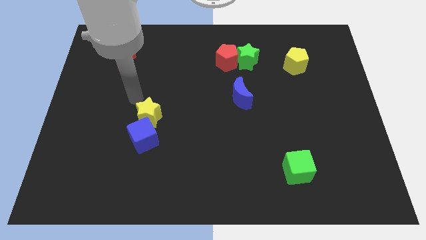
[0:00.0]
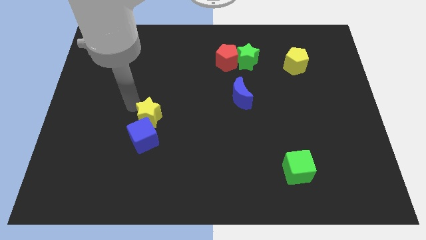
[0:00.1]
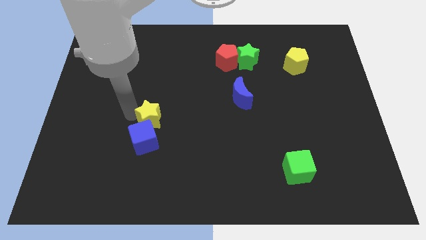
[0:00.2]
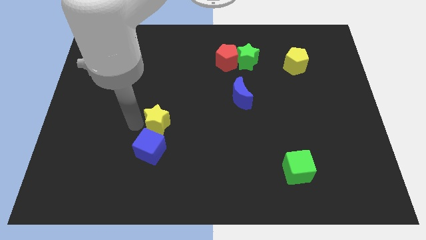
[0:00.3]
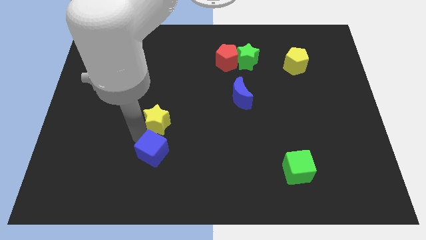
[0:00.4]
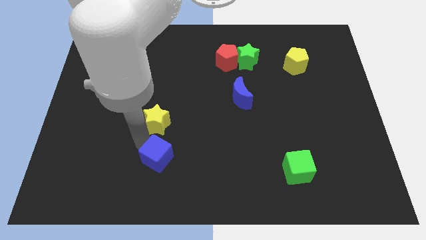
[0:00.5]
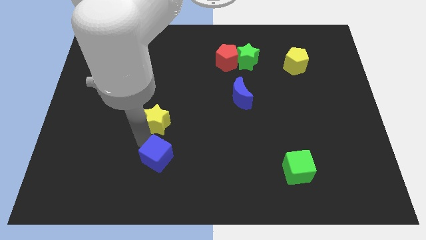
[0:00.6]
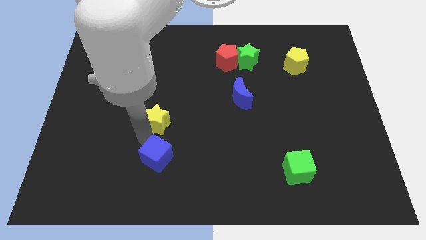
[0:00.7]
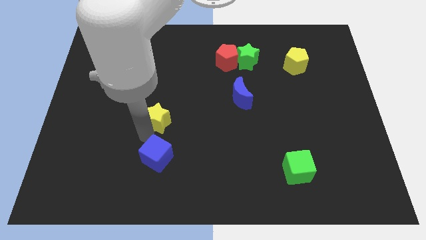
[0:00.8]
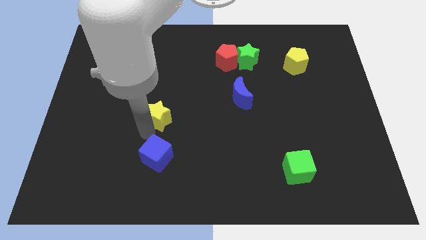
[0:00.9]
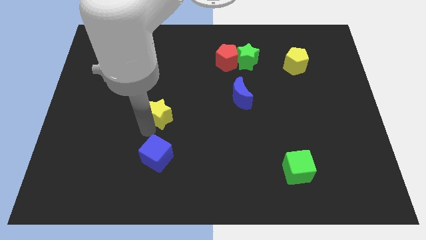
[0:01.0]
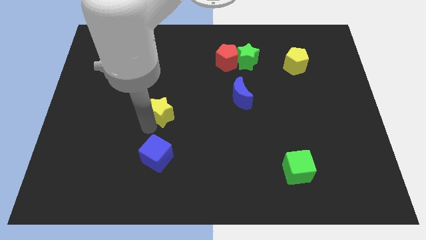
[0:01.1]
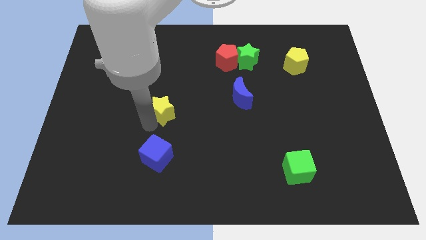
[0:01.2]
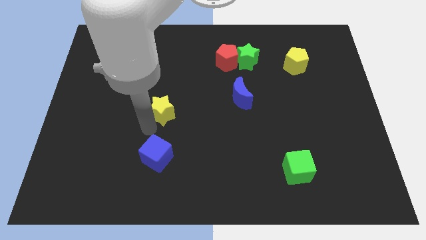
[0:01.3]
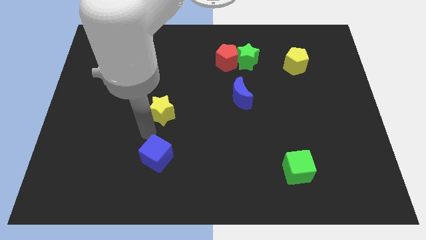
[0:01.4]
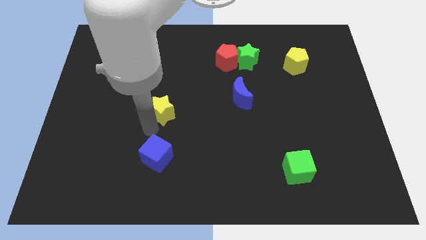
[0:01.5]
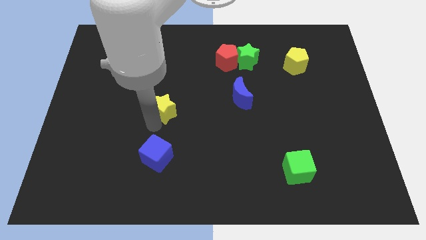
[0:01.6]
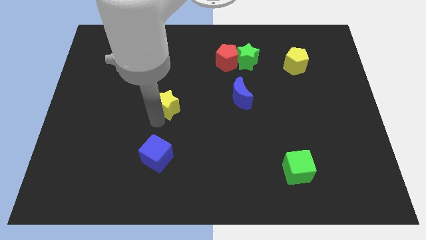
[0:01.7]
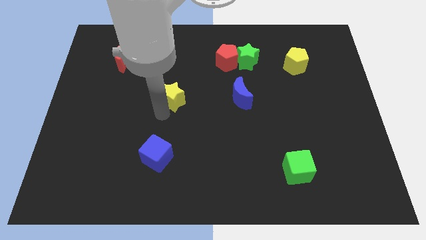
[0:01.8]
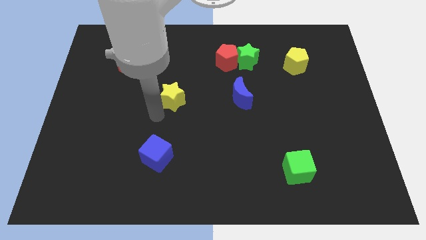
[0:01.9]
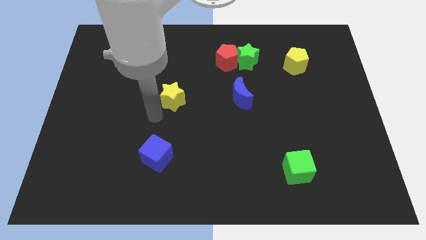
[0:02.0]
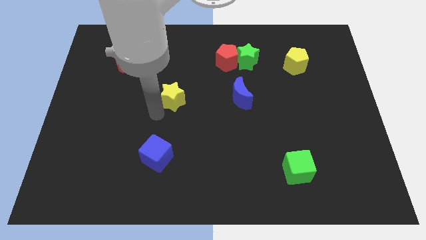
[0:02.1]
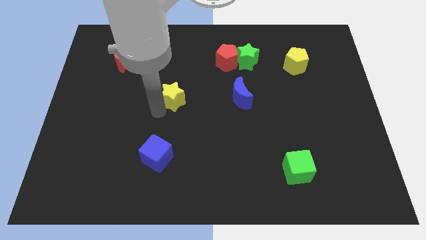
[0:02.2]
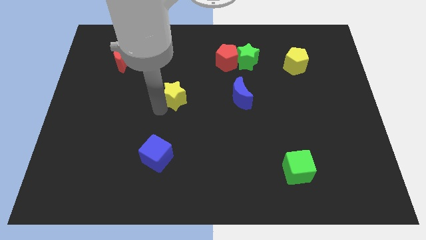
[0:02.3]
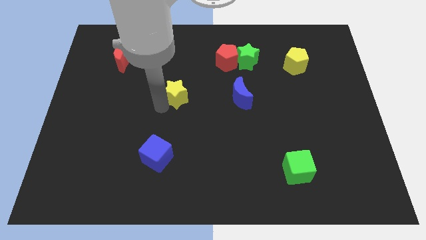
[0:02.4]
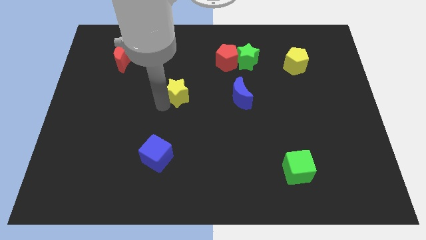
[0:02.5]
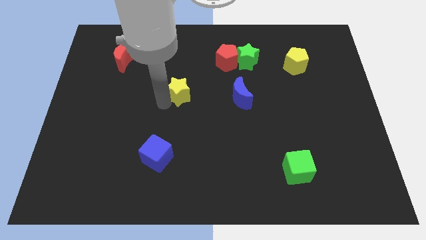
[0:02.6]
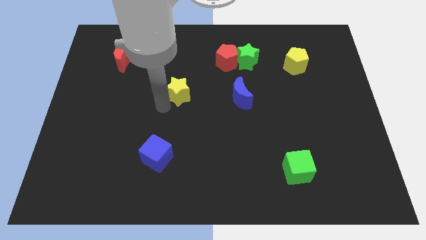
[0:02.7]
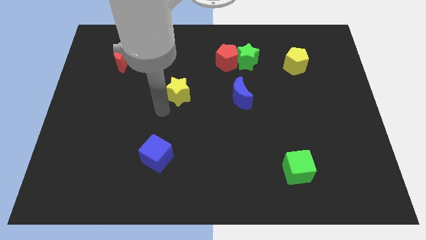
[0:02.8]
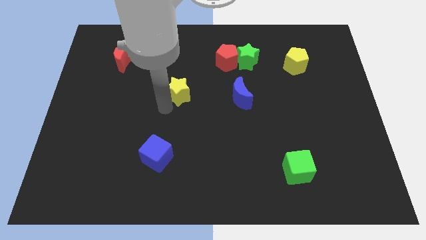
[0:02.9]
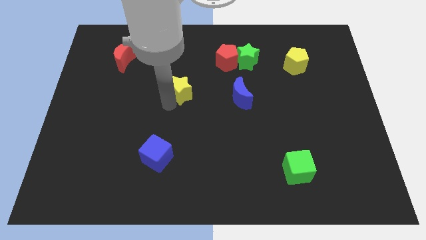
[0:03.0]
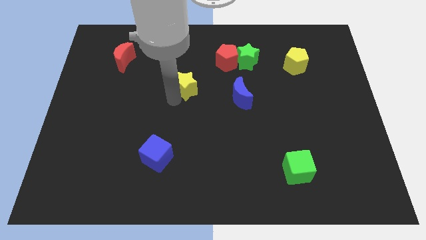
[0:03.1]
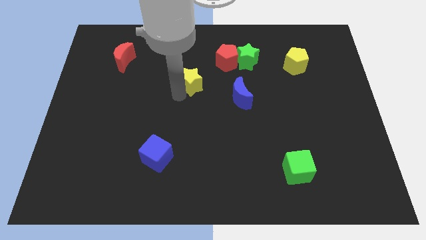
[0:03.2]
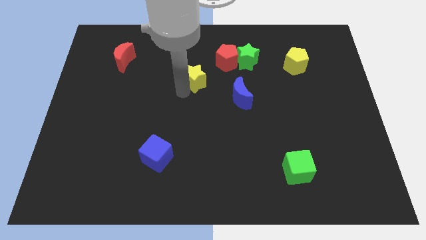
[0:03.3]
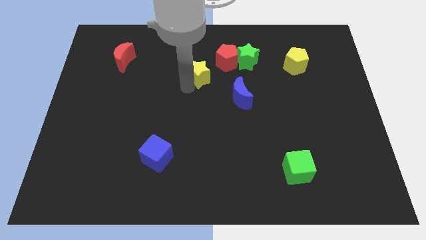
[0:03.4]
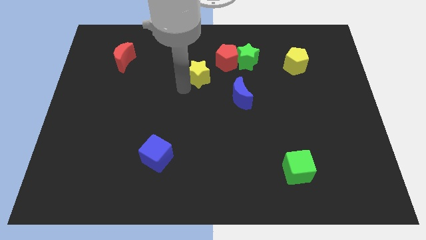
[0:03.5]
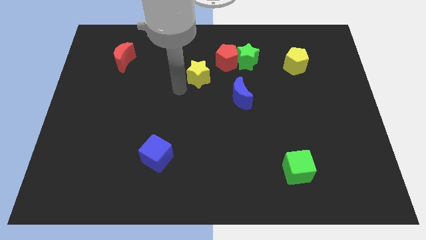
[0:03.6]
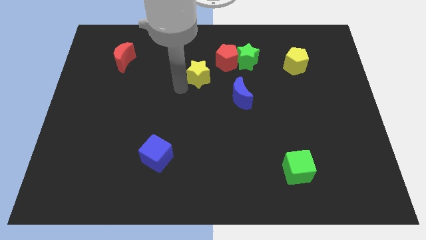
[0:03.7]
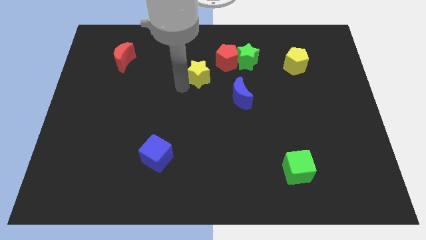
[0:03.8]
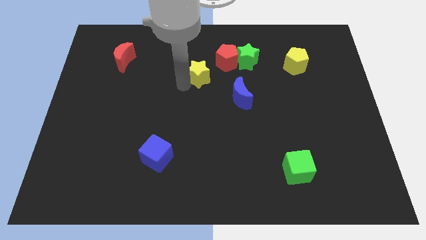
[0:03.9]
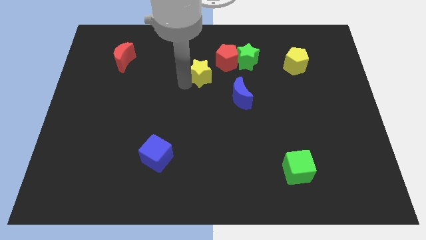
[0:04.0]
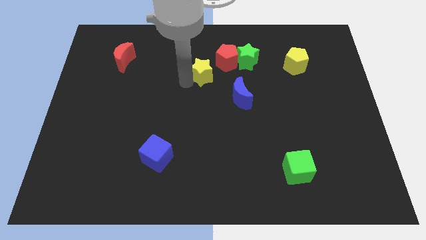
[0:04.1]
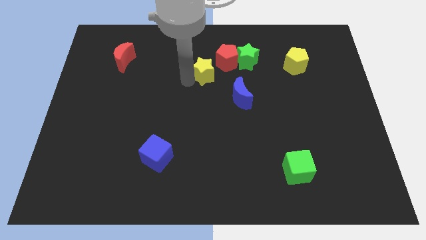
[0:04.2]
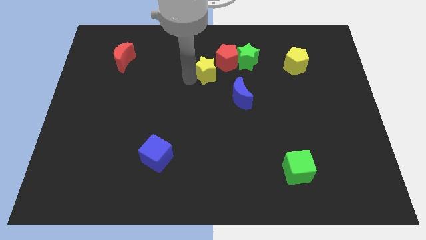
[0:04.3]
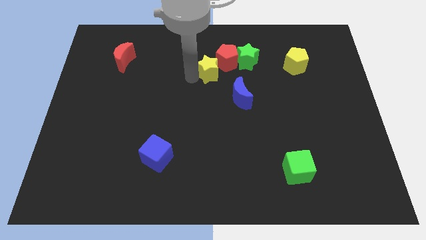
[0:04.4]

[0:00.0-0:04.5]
push the yellow star towards the red pentagon

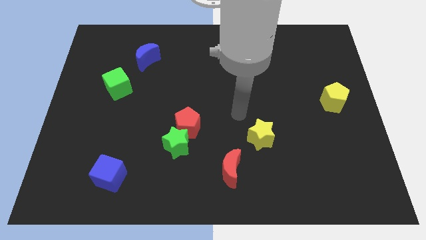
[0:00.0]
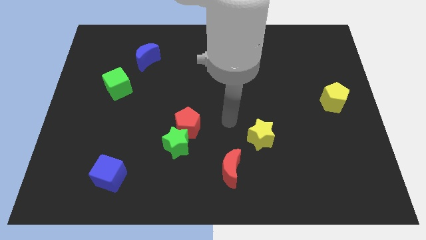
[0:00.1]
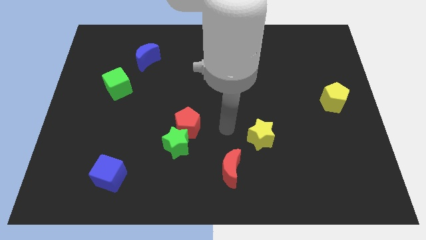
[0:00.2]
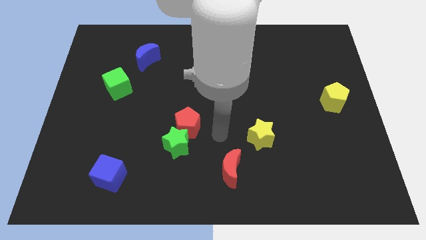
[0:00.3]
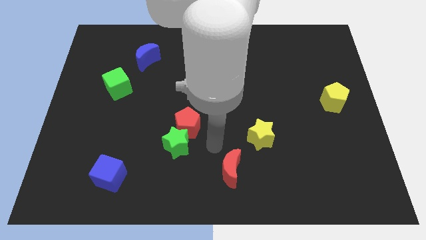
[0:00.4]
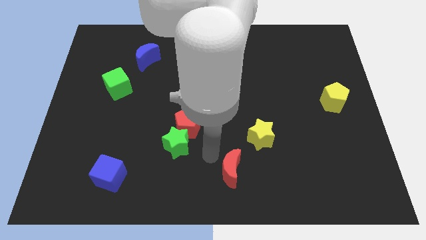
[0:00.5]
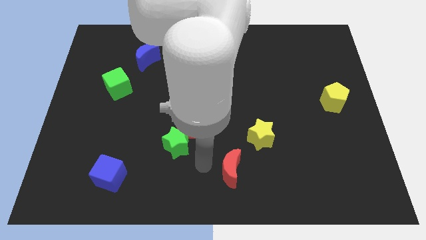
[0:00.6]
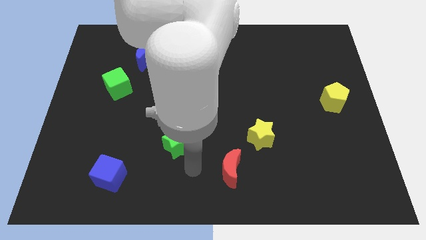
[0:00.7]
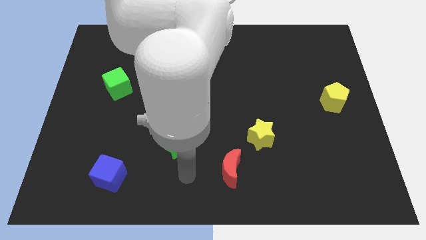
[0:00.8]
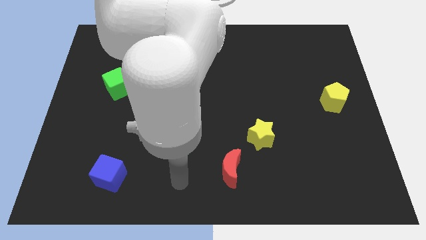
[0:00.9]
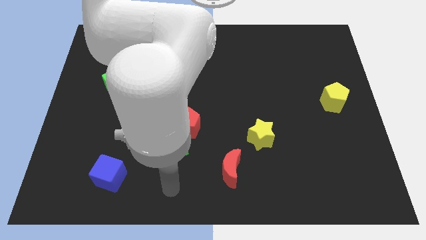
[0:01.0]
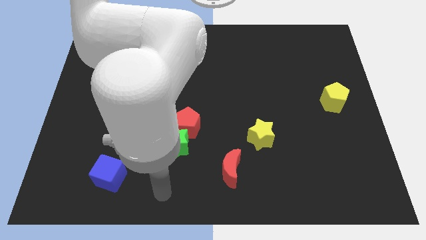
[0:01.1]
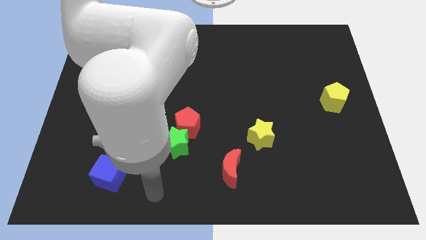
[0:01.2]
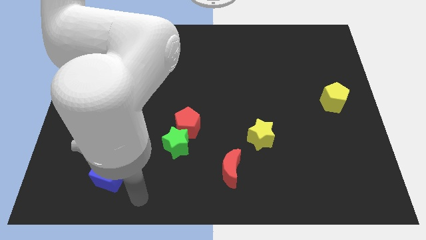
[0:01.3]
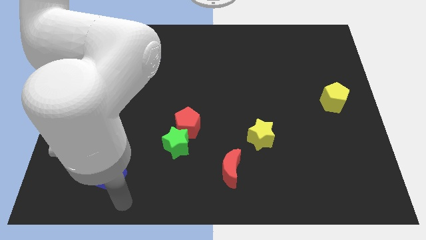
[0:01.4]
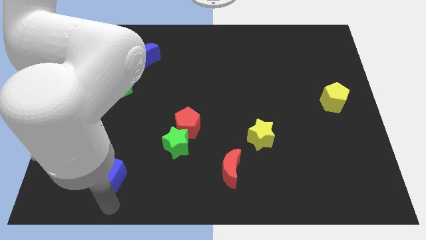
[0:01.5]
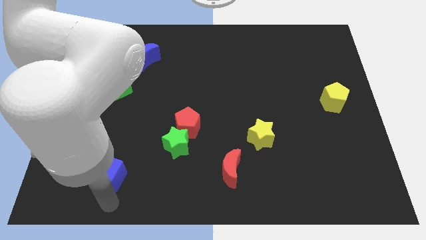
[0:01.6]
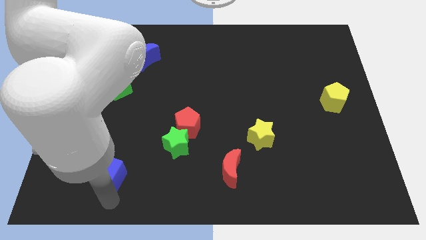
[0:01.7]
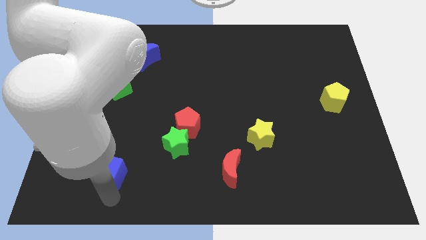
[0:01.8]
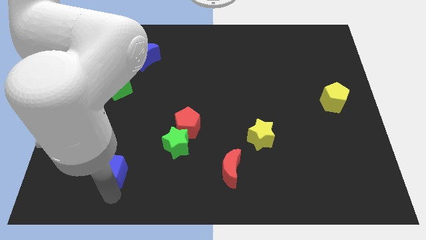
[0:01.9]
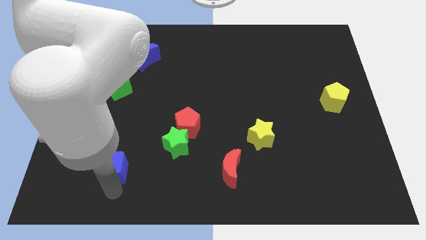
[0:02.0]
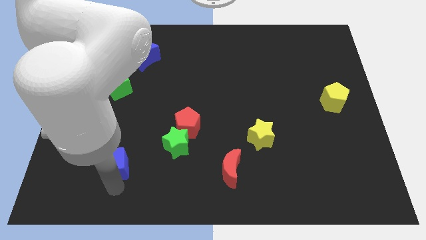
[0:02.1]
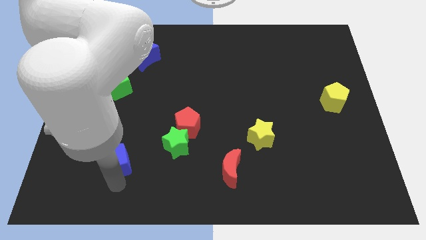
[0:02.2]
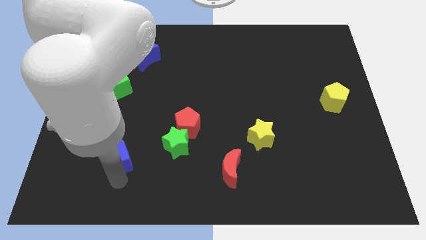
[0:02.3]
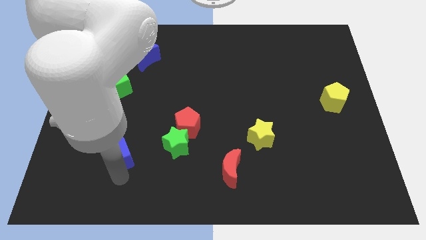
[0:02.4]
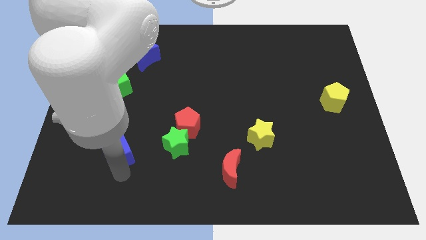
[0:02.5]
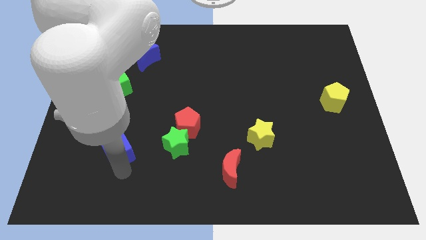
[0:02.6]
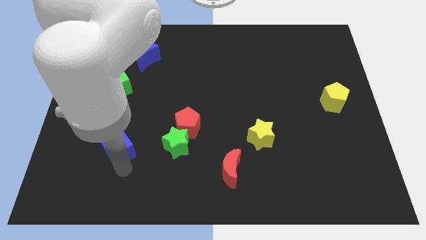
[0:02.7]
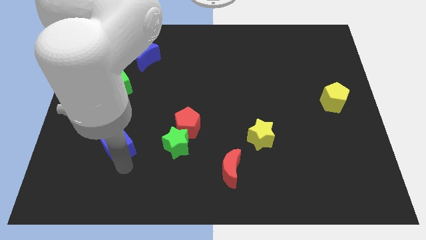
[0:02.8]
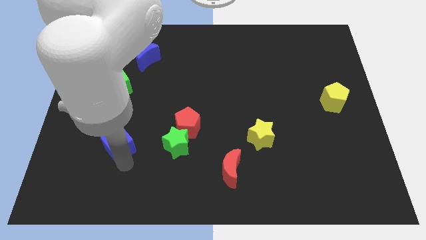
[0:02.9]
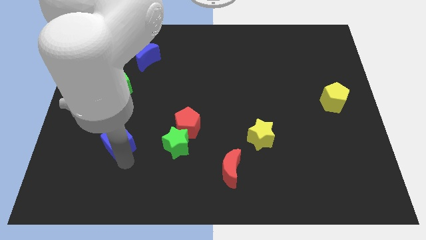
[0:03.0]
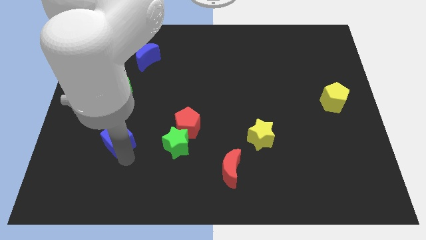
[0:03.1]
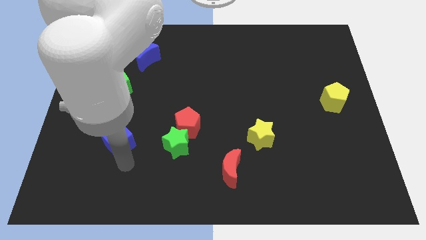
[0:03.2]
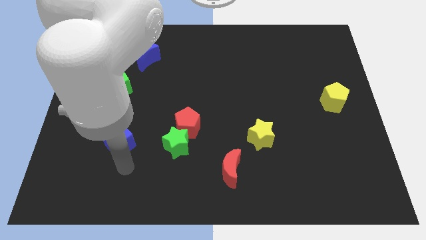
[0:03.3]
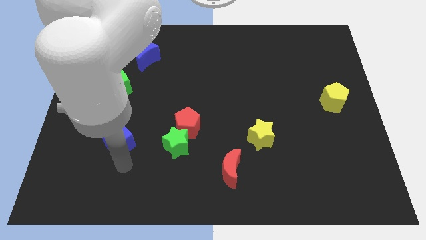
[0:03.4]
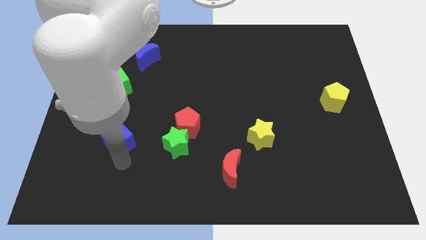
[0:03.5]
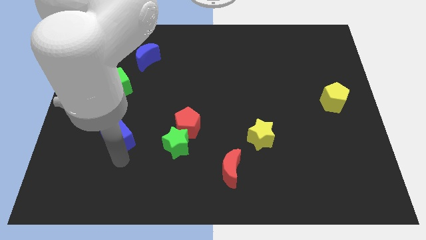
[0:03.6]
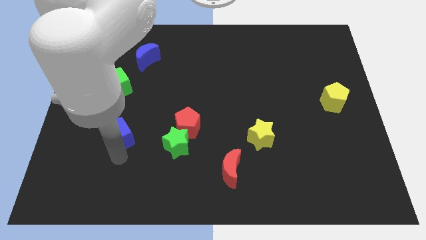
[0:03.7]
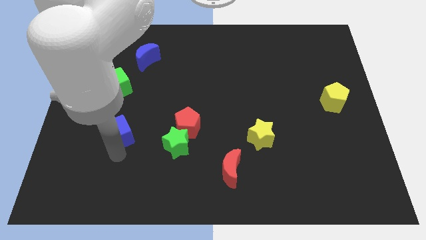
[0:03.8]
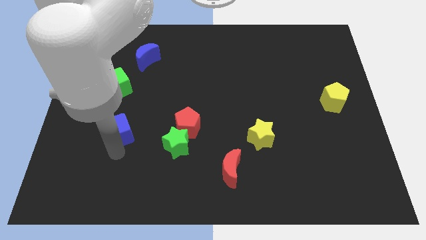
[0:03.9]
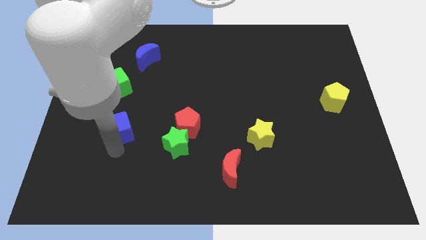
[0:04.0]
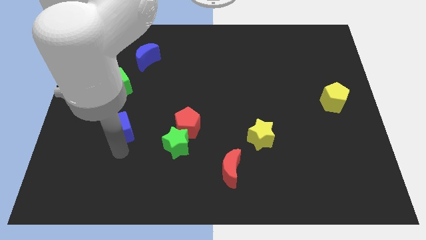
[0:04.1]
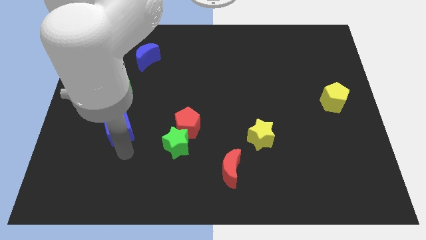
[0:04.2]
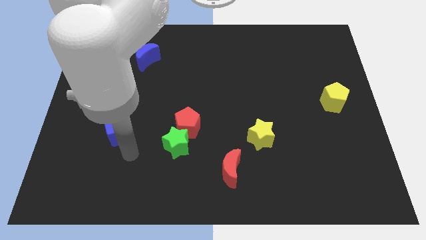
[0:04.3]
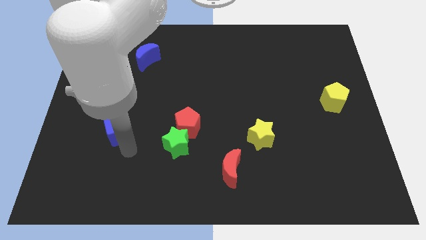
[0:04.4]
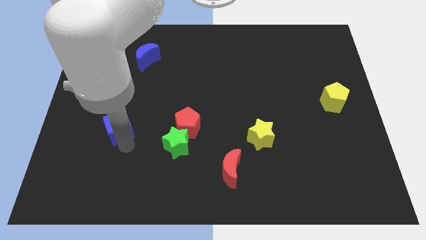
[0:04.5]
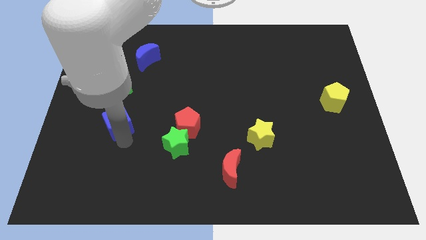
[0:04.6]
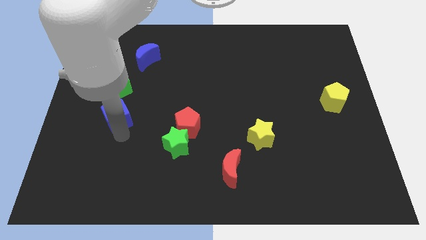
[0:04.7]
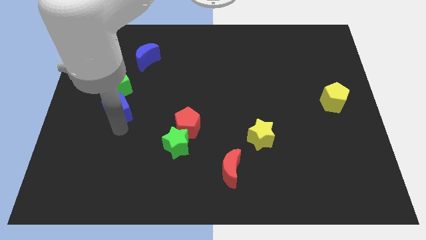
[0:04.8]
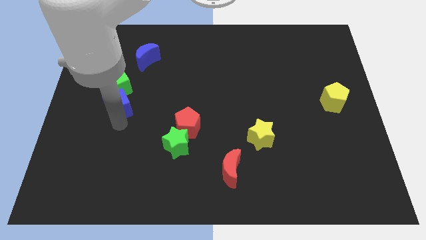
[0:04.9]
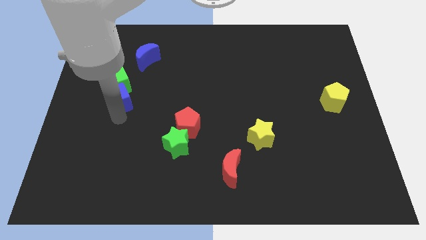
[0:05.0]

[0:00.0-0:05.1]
slide the blue cube close to the green cube
